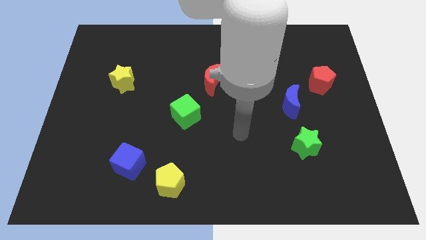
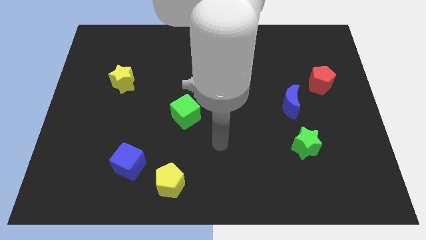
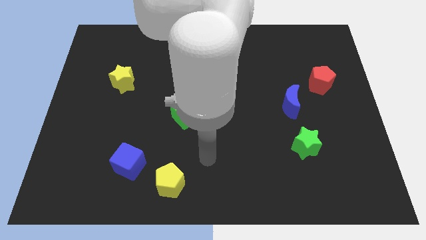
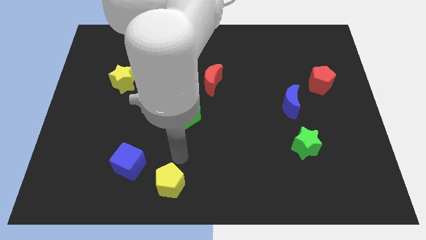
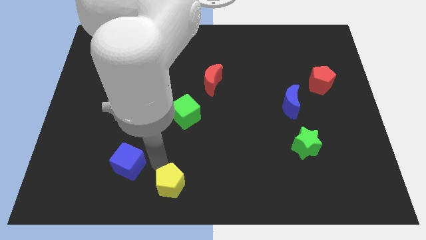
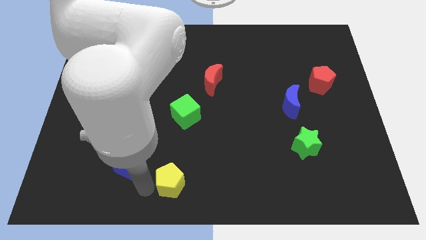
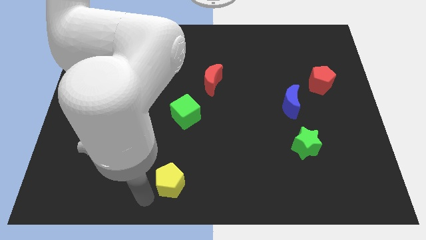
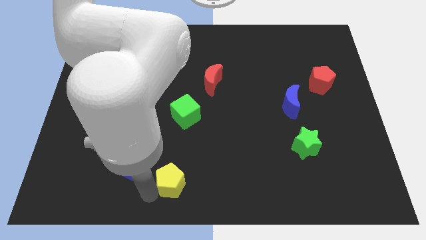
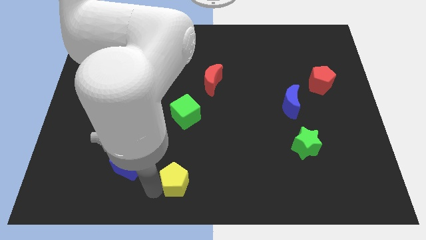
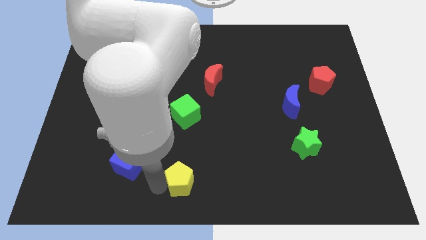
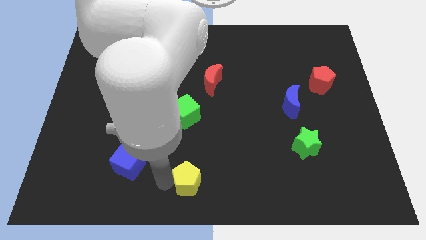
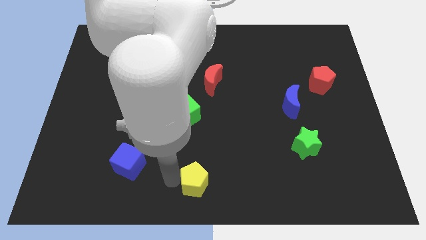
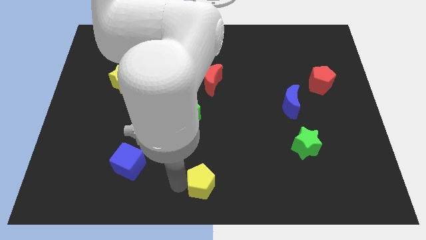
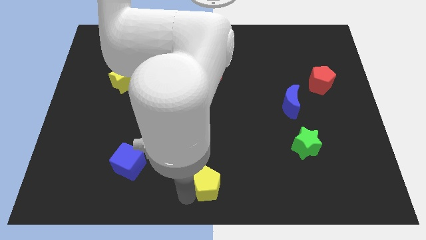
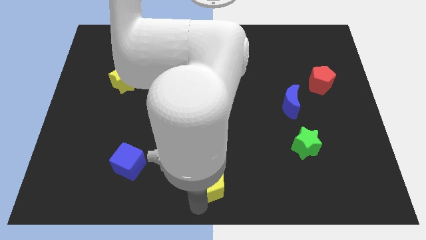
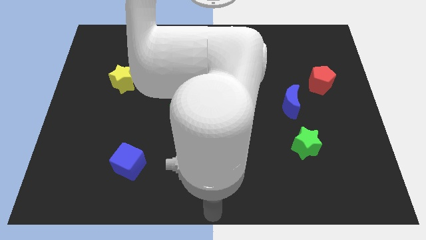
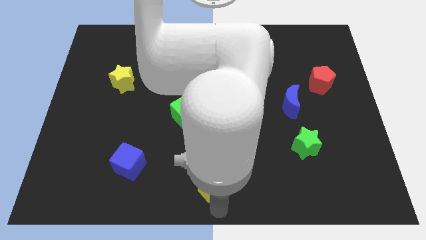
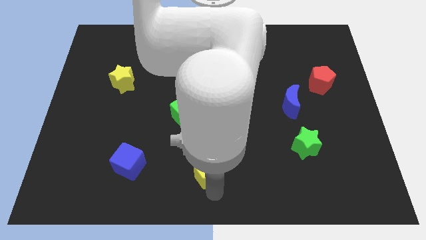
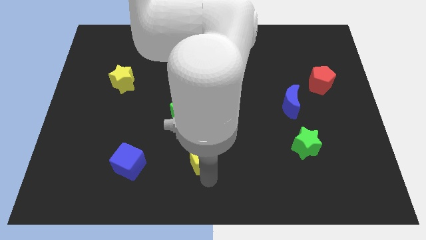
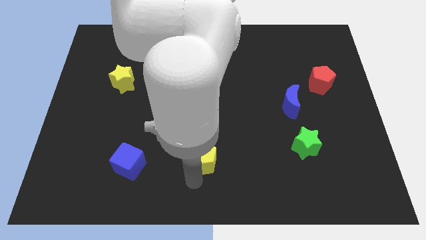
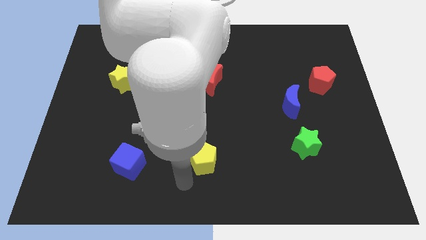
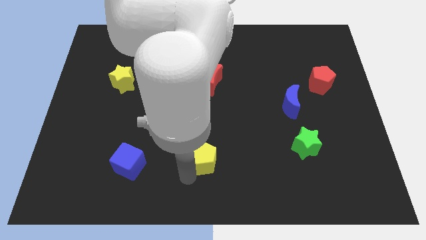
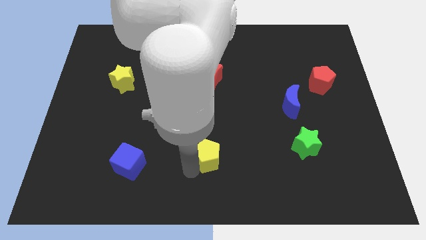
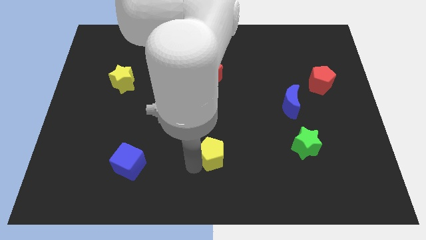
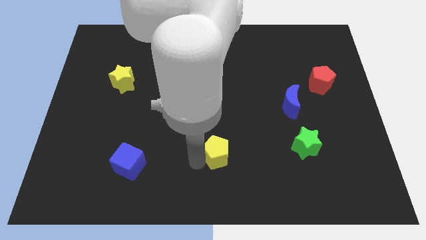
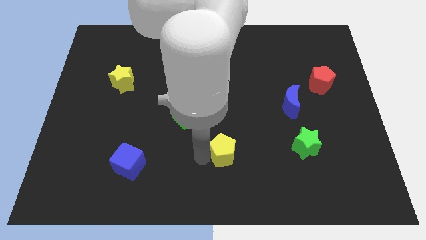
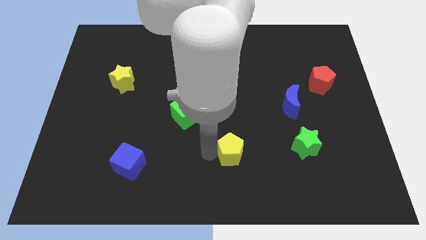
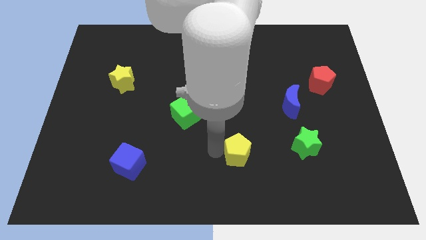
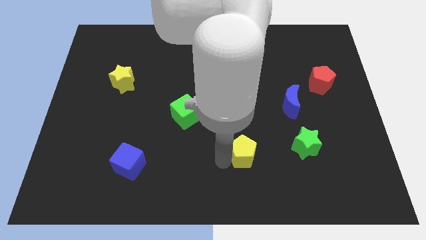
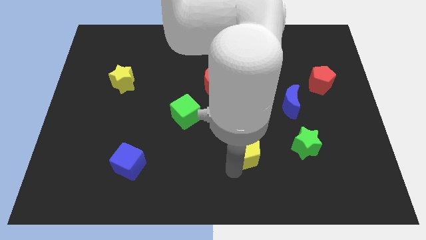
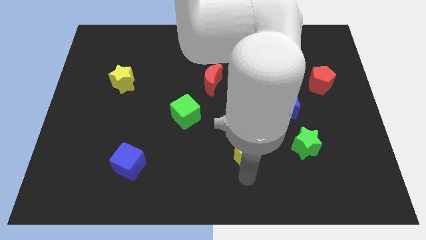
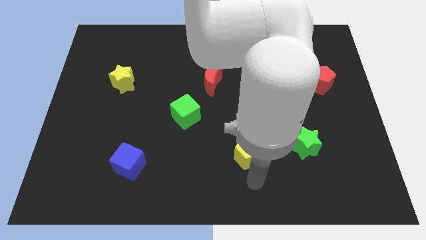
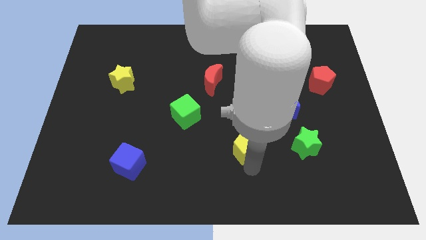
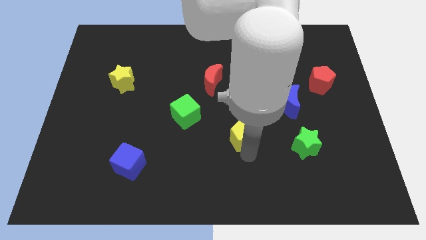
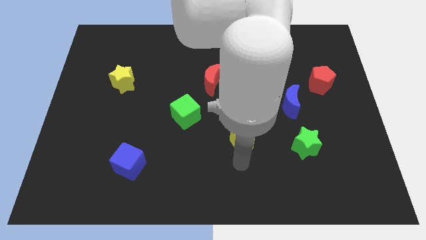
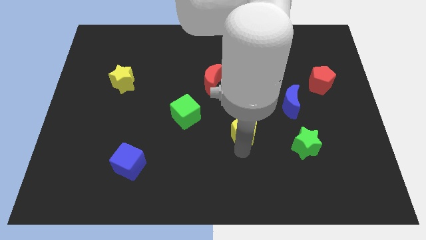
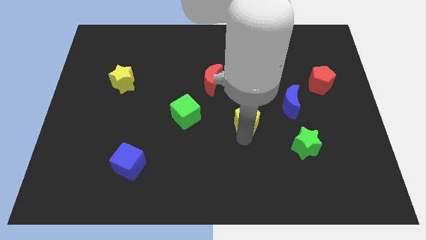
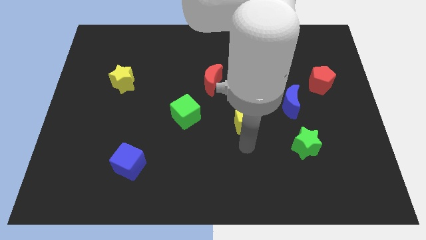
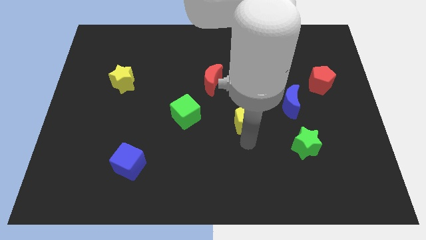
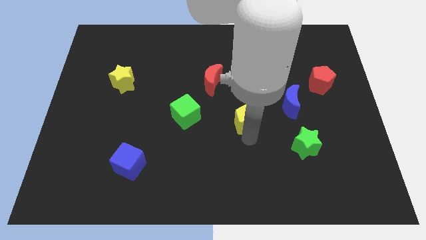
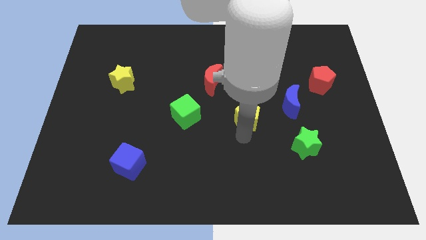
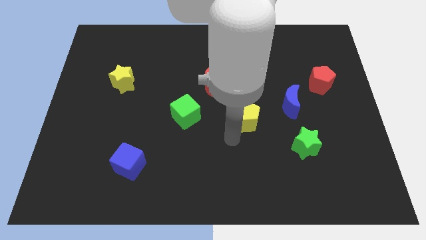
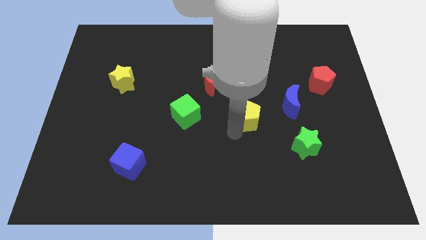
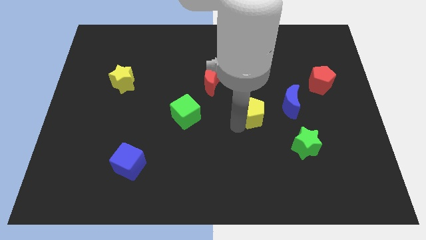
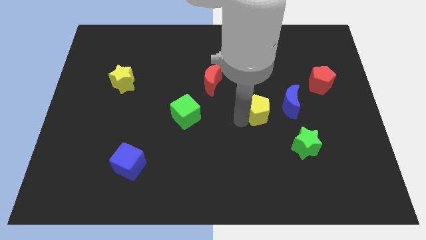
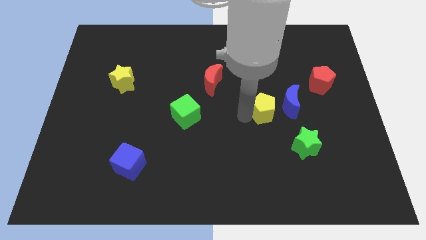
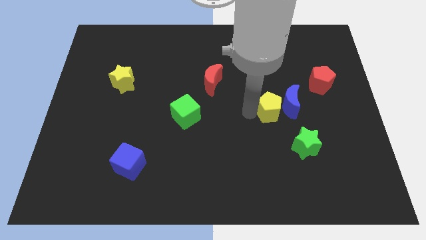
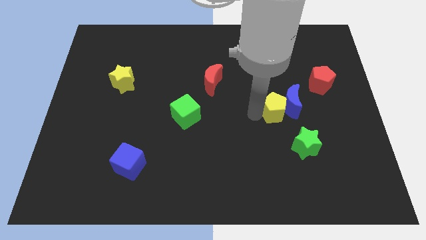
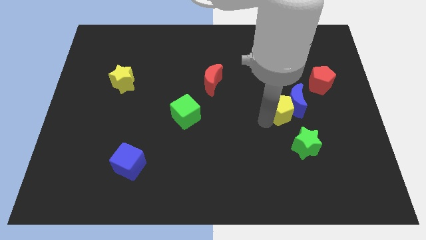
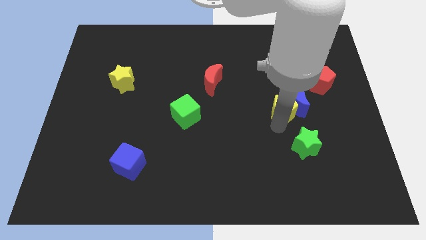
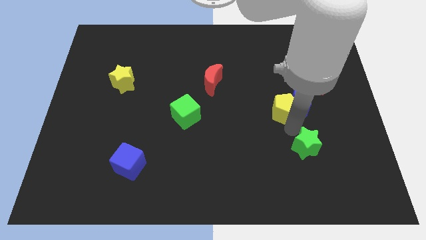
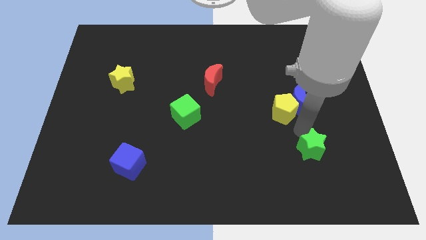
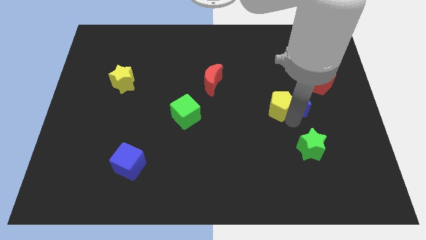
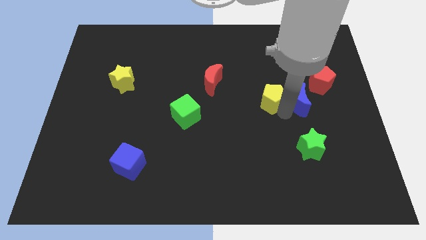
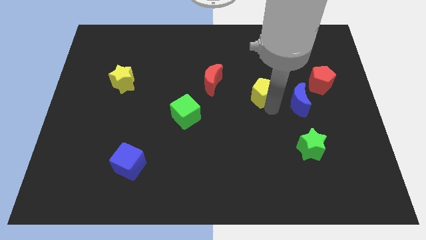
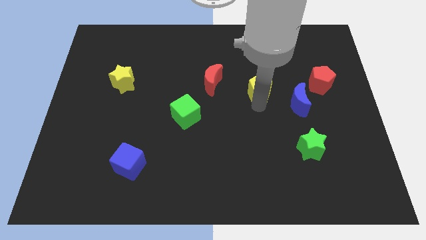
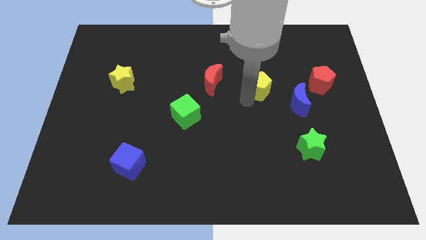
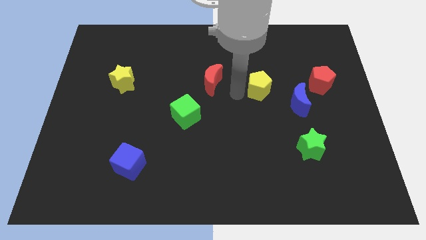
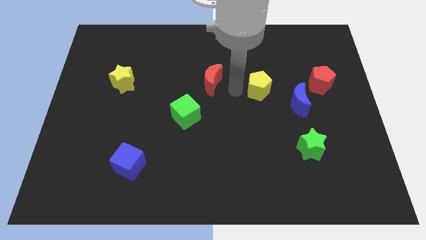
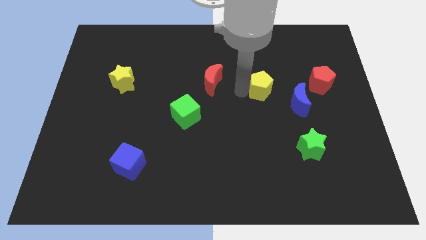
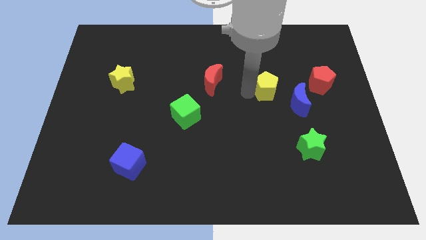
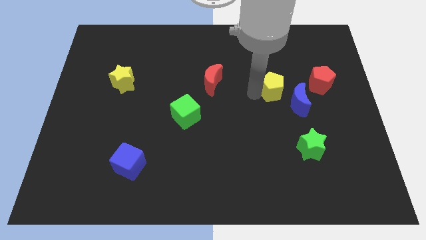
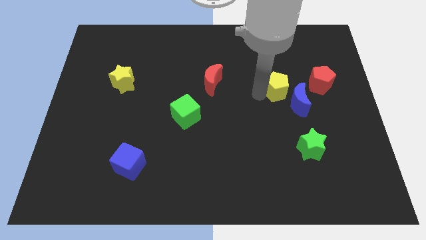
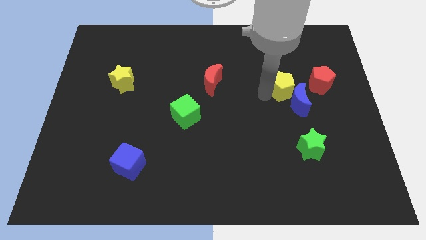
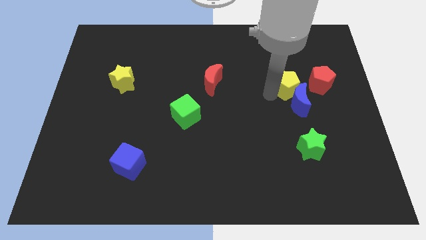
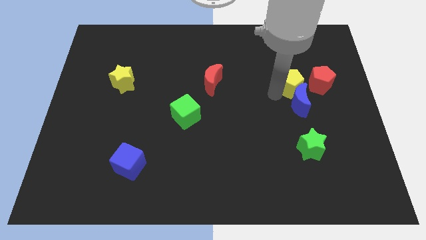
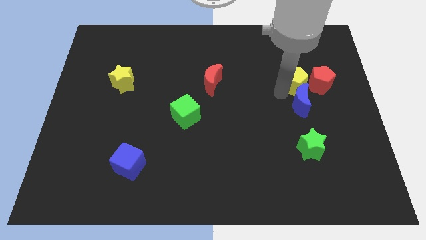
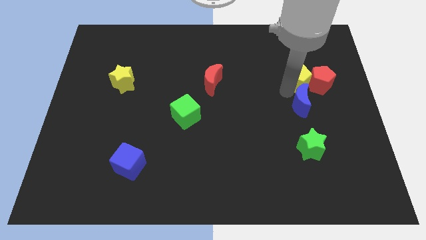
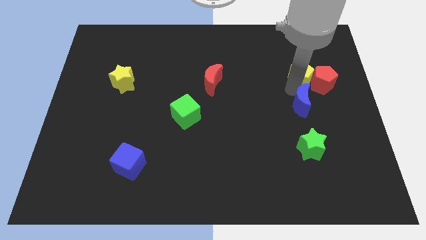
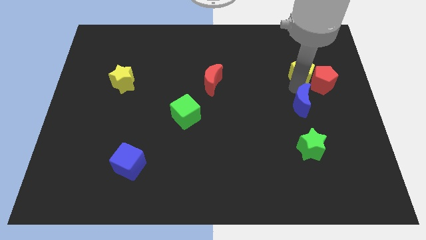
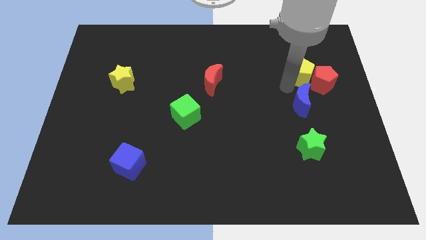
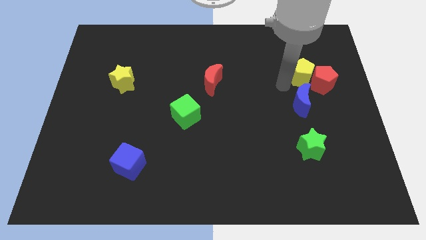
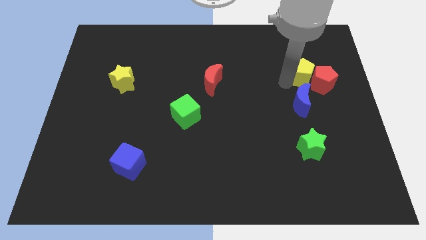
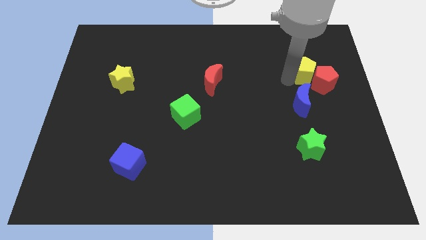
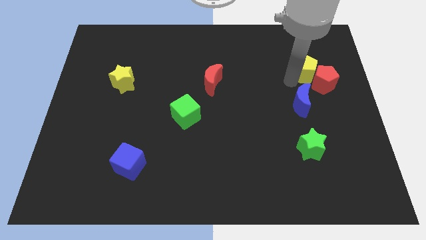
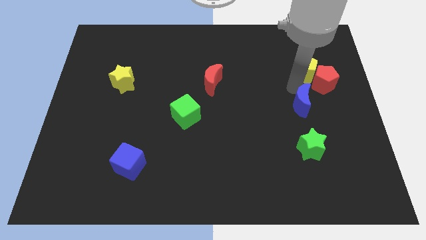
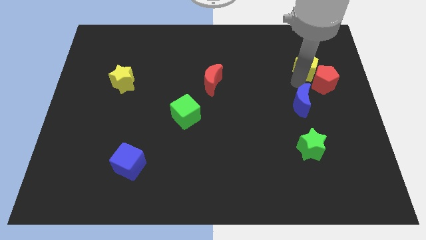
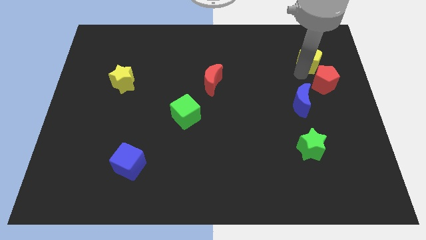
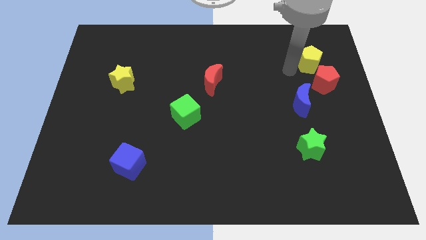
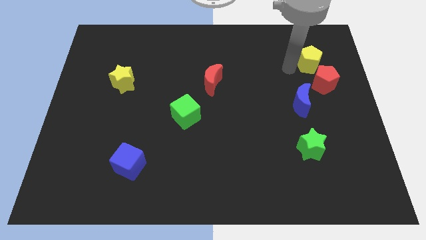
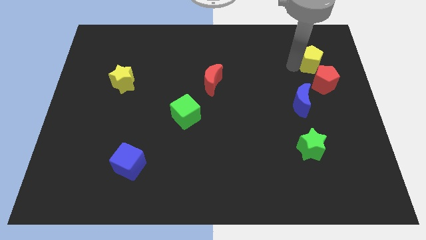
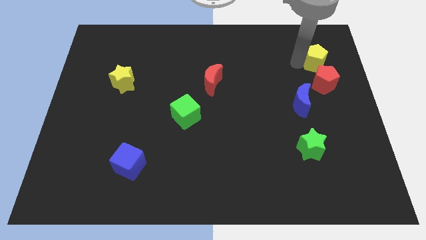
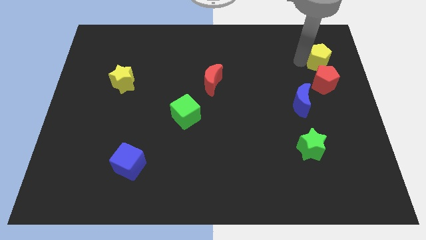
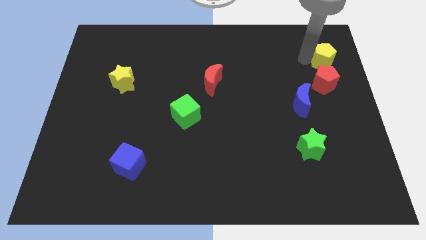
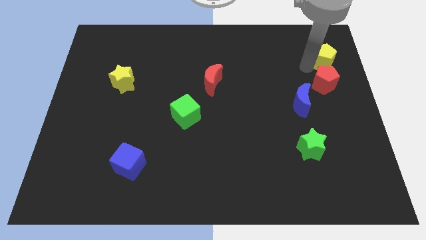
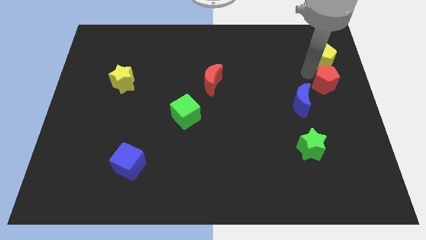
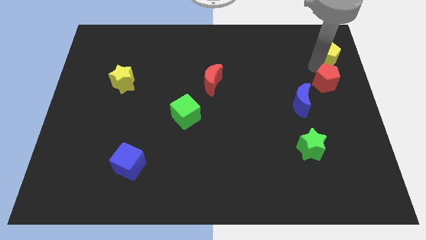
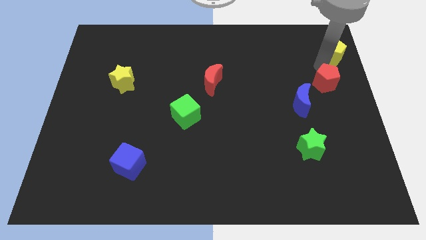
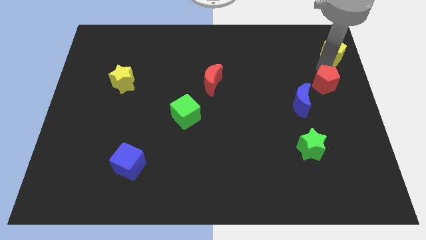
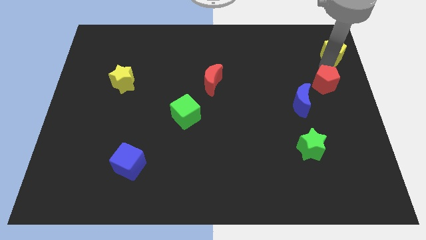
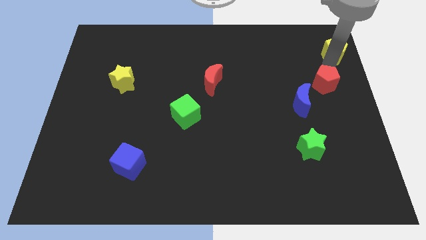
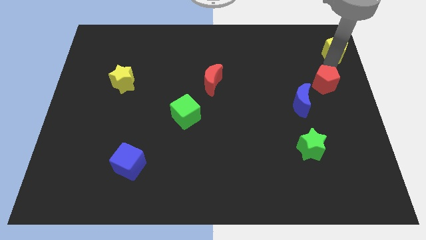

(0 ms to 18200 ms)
push the yellow pentagon to the top right of the board
